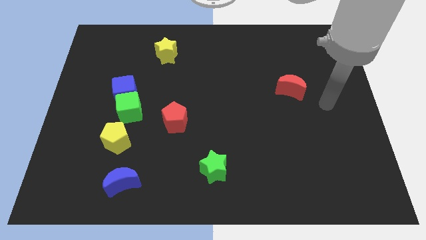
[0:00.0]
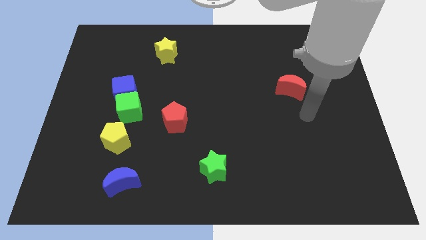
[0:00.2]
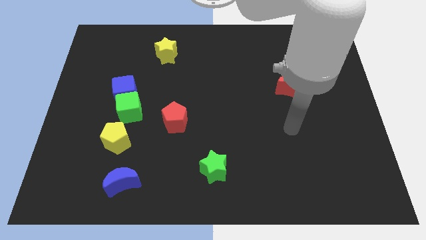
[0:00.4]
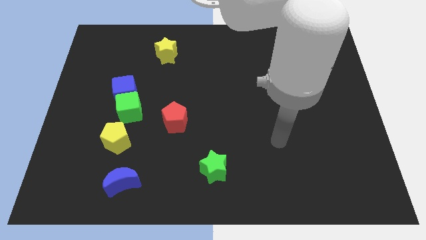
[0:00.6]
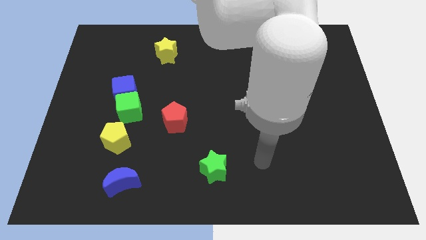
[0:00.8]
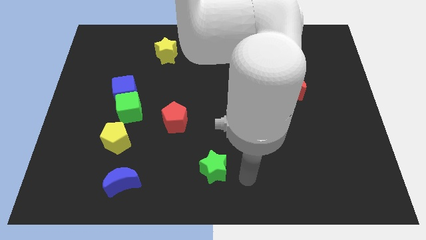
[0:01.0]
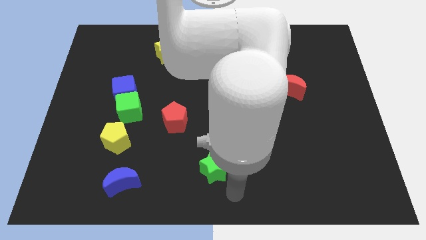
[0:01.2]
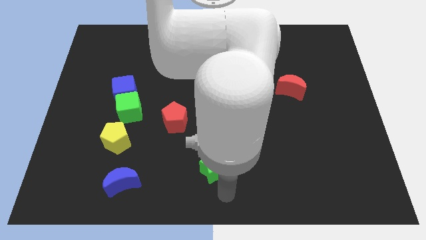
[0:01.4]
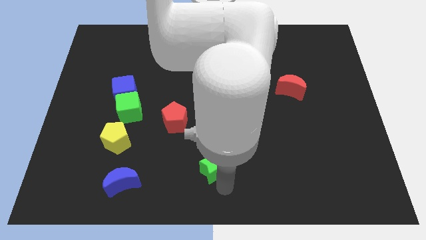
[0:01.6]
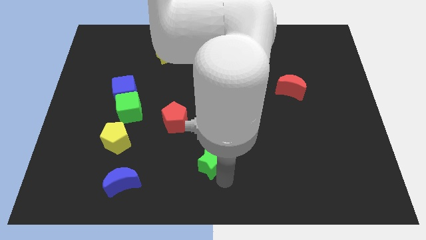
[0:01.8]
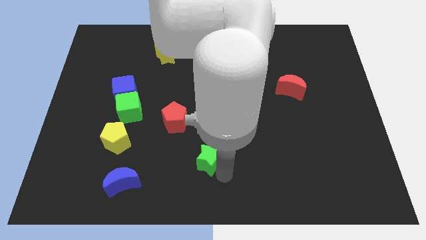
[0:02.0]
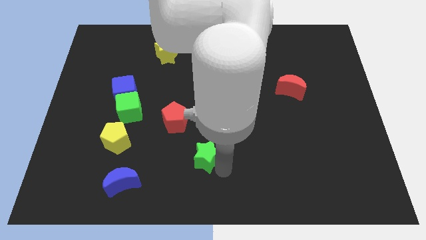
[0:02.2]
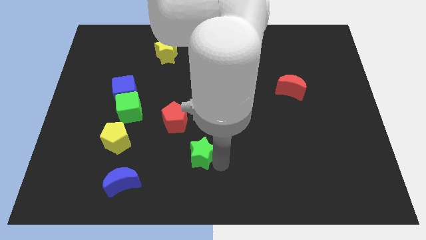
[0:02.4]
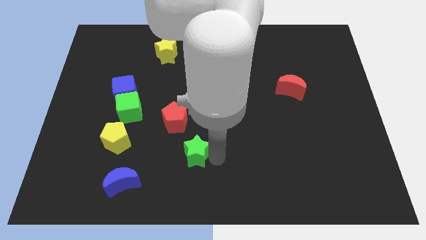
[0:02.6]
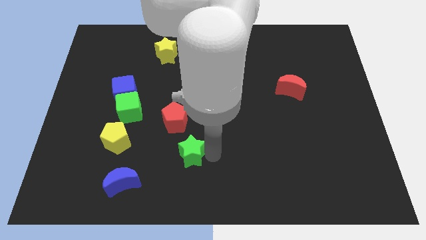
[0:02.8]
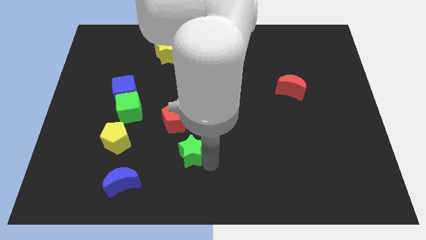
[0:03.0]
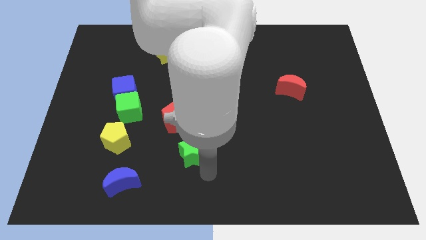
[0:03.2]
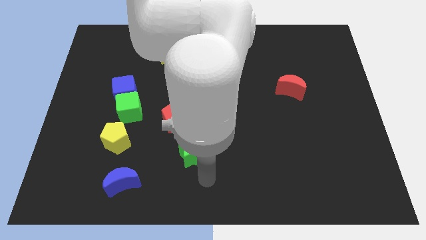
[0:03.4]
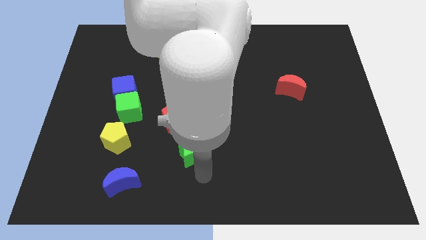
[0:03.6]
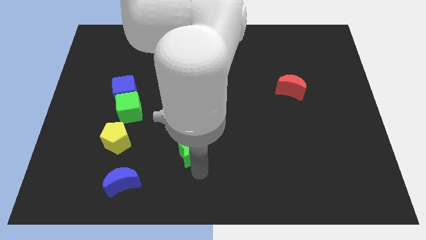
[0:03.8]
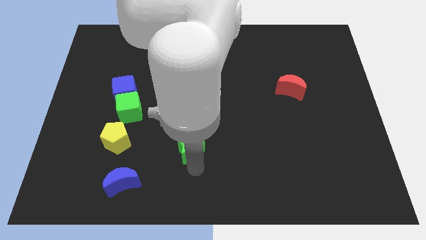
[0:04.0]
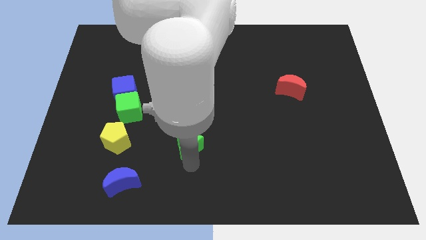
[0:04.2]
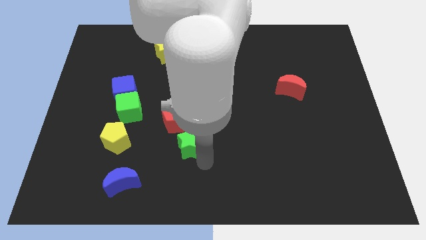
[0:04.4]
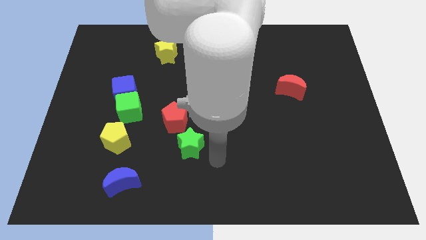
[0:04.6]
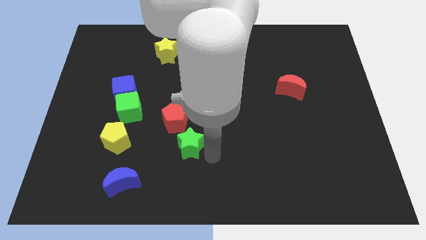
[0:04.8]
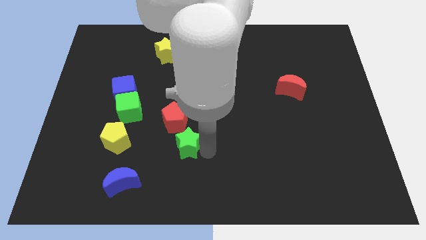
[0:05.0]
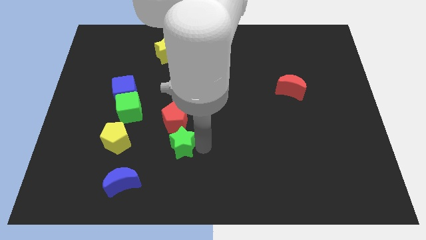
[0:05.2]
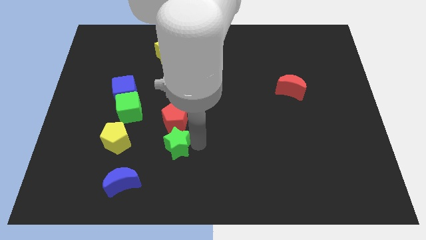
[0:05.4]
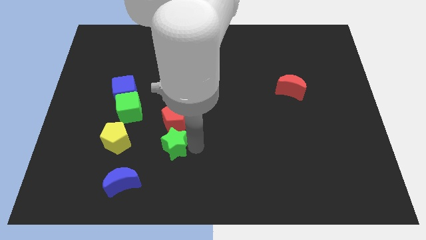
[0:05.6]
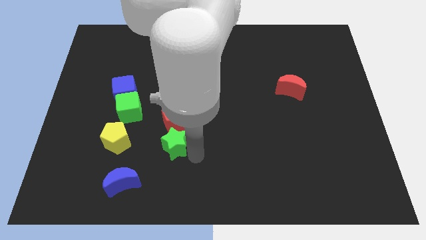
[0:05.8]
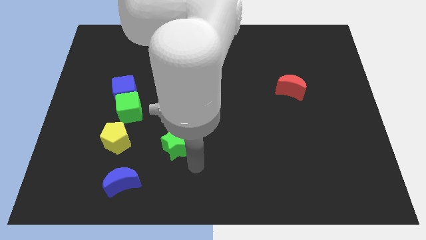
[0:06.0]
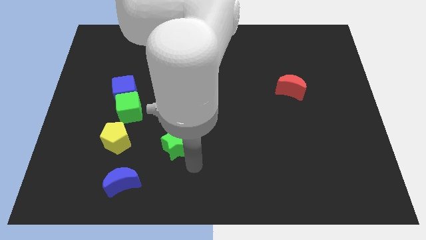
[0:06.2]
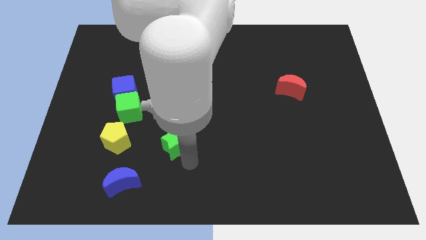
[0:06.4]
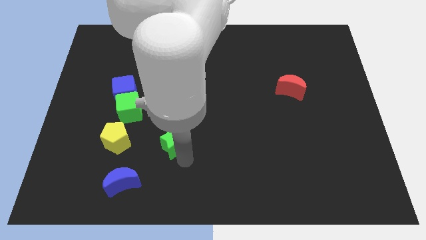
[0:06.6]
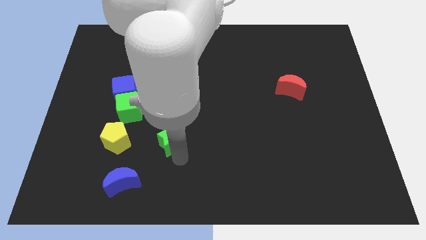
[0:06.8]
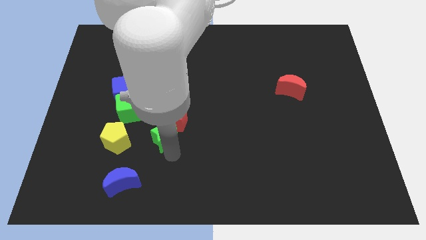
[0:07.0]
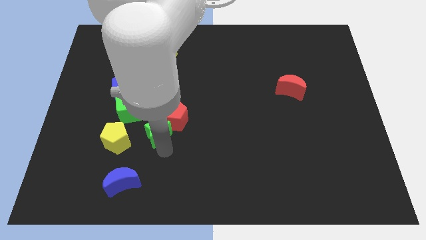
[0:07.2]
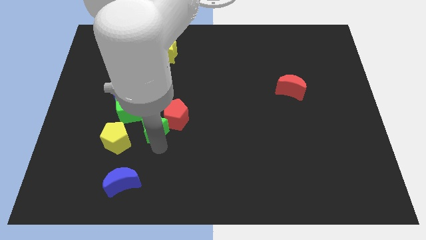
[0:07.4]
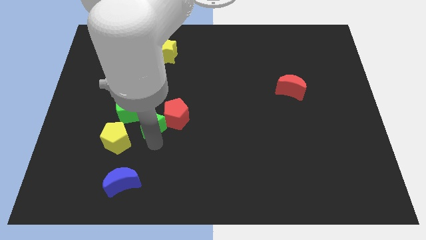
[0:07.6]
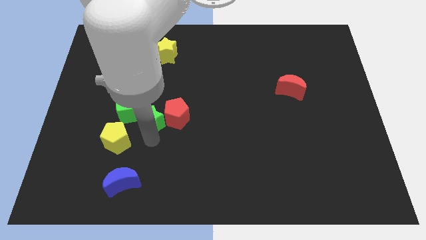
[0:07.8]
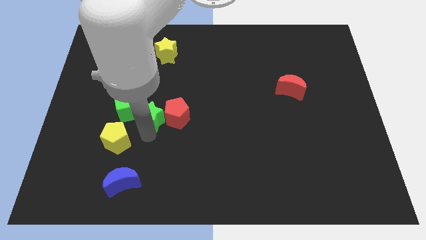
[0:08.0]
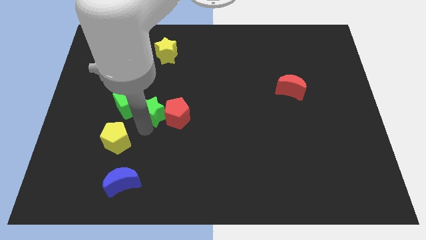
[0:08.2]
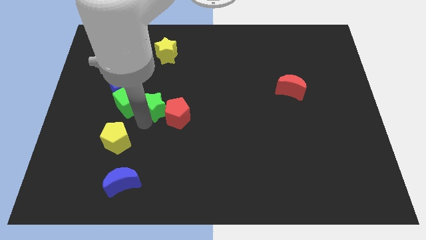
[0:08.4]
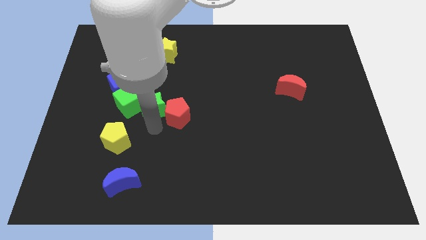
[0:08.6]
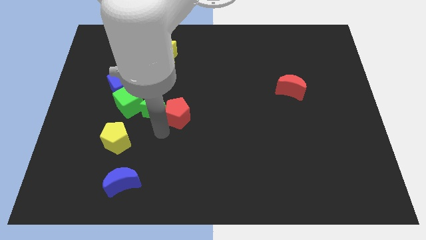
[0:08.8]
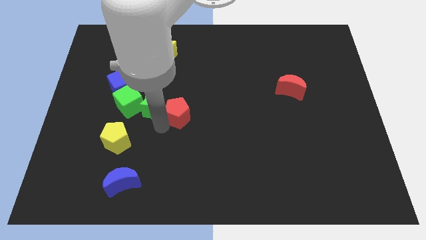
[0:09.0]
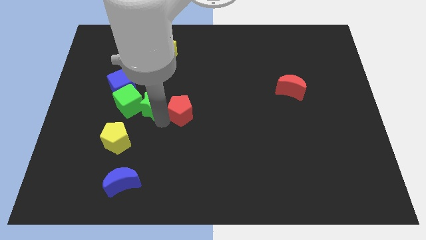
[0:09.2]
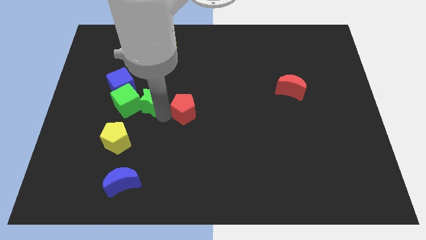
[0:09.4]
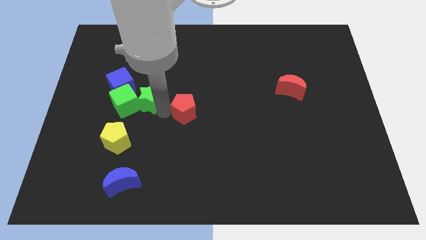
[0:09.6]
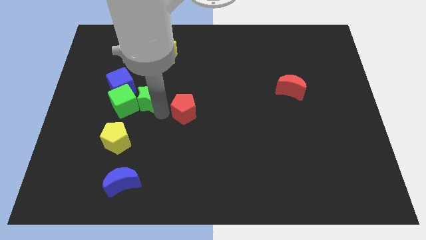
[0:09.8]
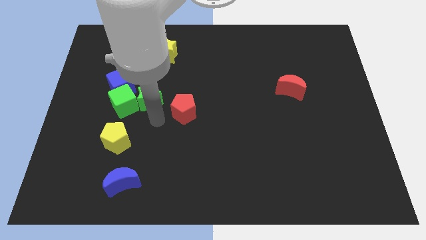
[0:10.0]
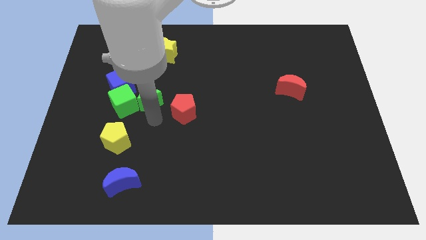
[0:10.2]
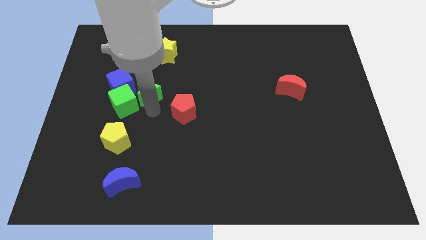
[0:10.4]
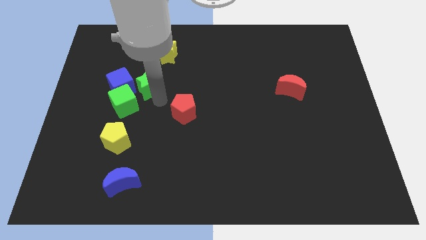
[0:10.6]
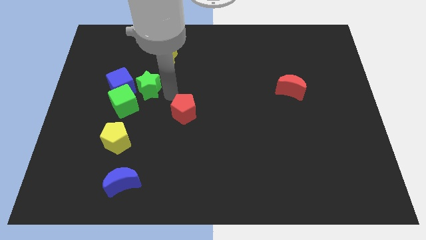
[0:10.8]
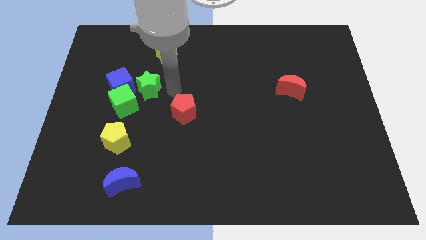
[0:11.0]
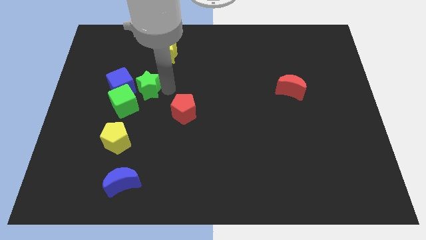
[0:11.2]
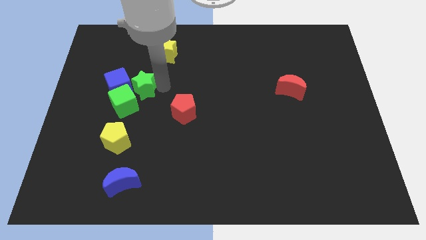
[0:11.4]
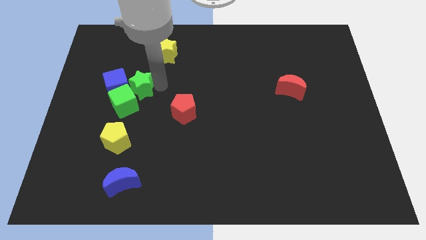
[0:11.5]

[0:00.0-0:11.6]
move the green star to the blue cube

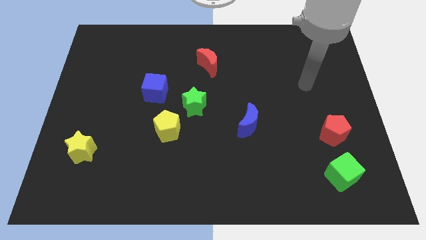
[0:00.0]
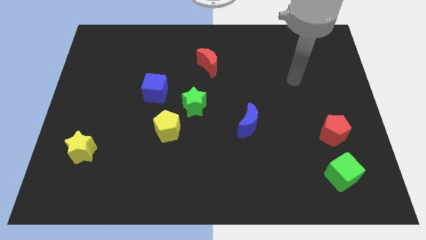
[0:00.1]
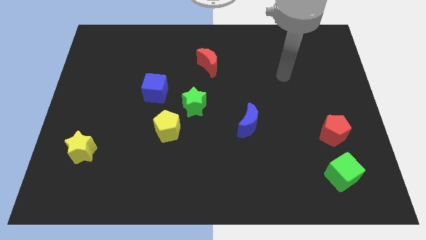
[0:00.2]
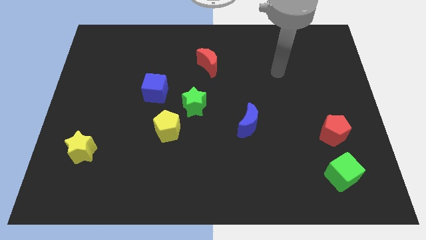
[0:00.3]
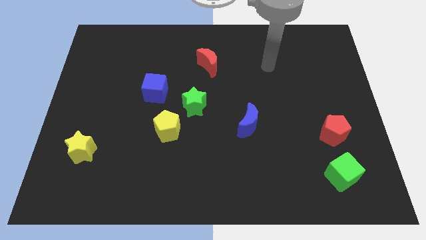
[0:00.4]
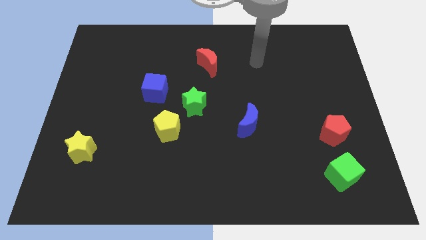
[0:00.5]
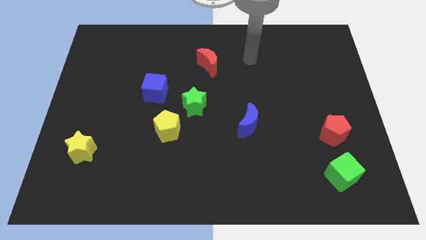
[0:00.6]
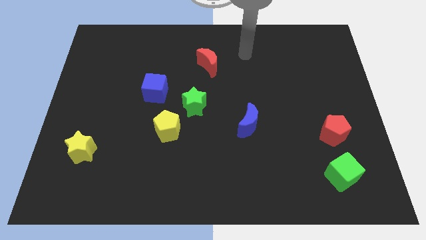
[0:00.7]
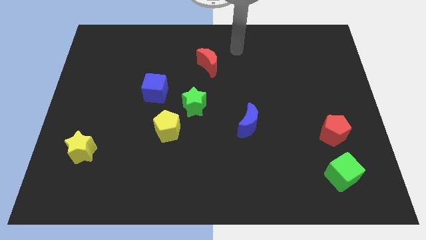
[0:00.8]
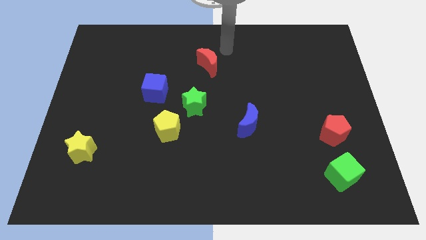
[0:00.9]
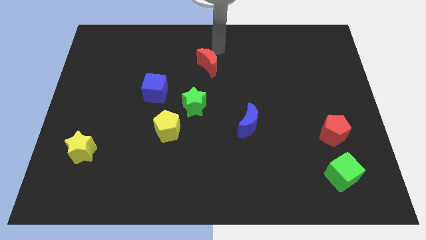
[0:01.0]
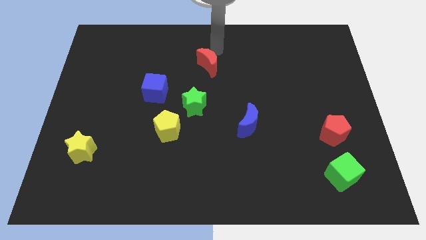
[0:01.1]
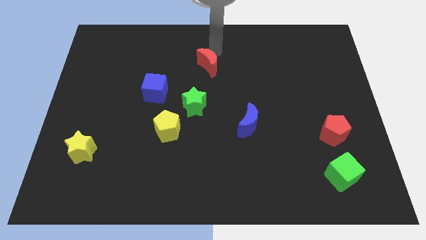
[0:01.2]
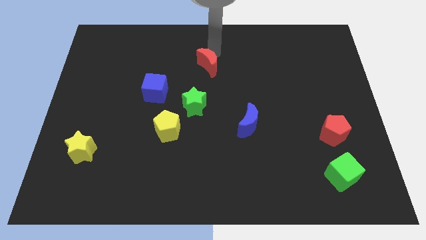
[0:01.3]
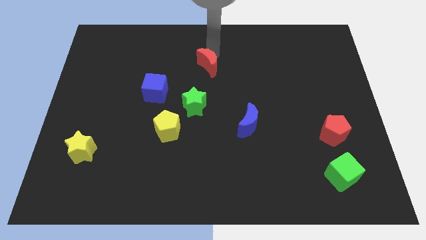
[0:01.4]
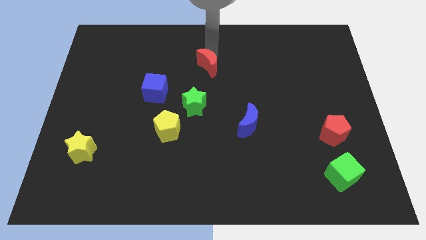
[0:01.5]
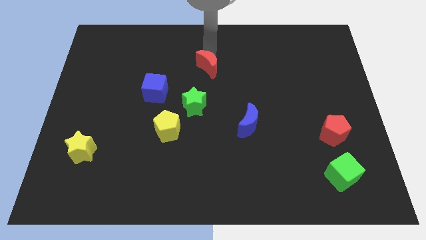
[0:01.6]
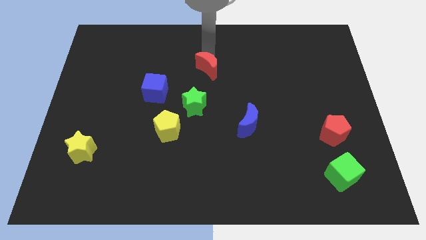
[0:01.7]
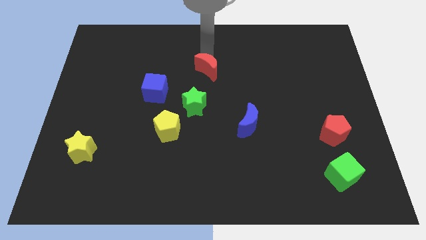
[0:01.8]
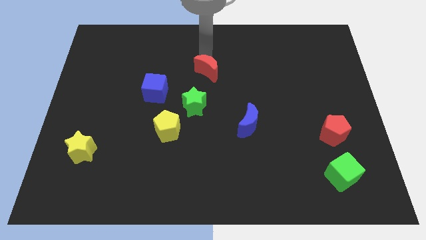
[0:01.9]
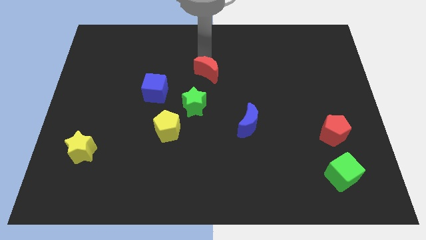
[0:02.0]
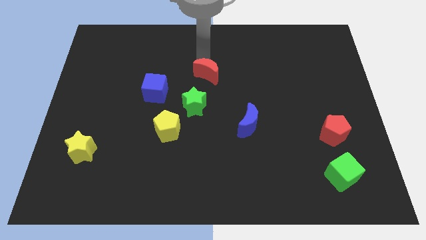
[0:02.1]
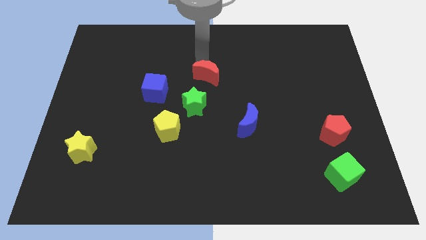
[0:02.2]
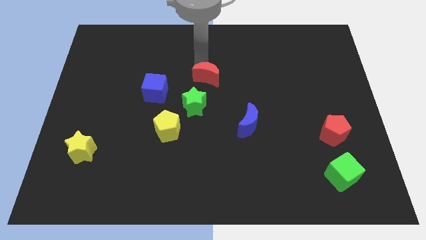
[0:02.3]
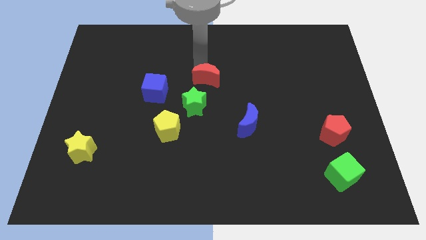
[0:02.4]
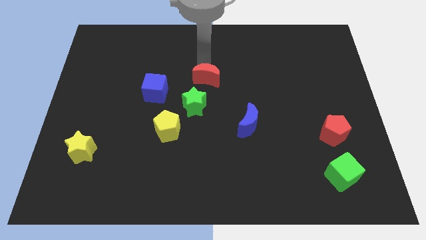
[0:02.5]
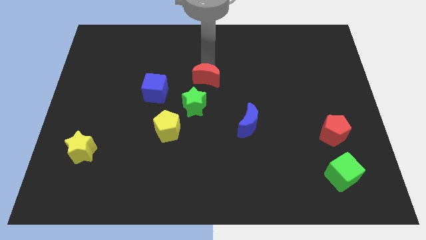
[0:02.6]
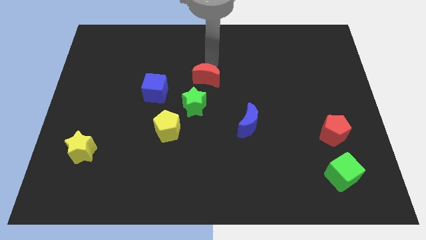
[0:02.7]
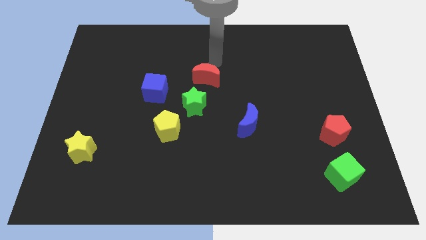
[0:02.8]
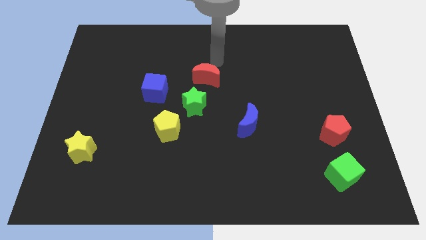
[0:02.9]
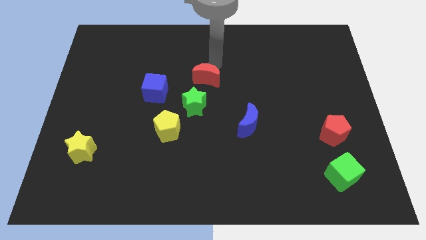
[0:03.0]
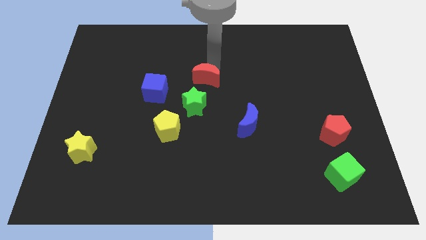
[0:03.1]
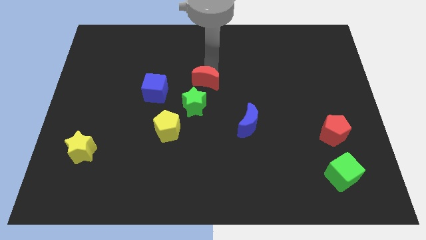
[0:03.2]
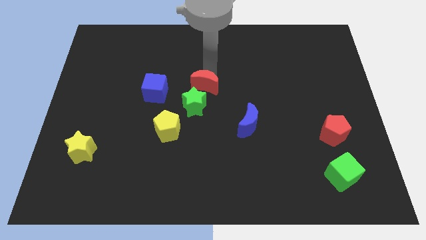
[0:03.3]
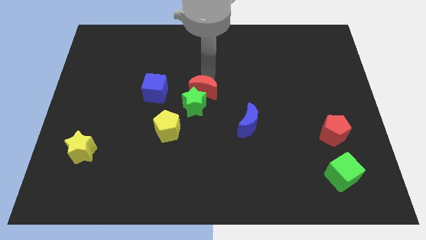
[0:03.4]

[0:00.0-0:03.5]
put the red moon to the green star
